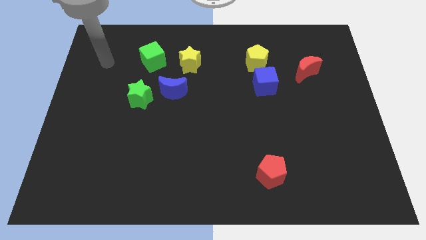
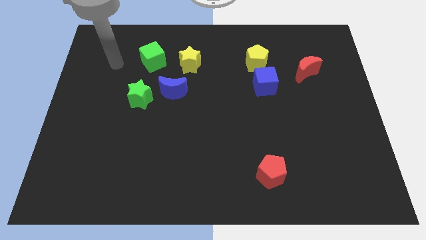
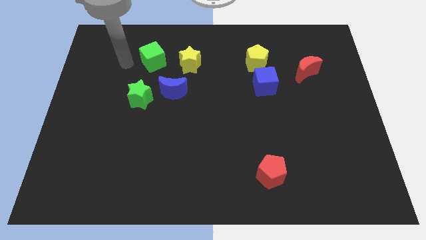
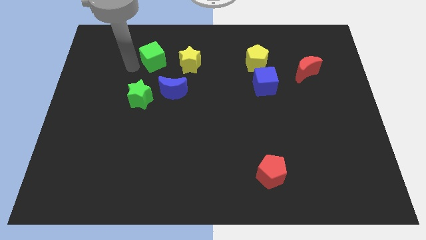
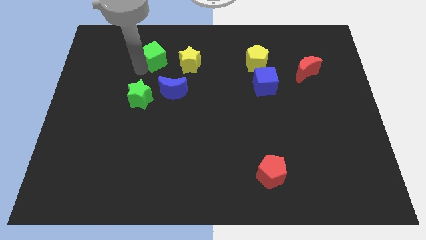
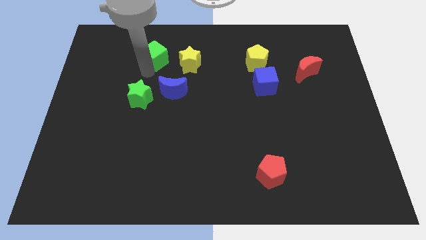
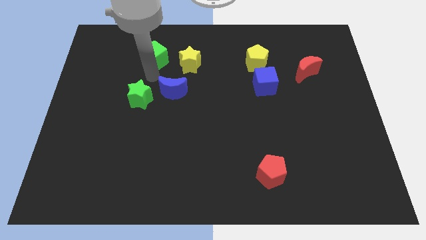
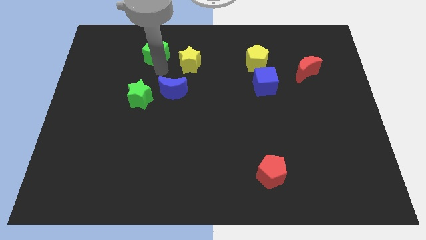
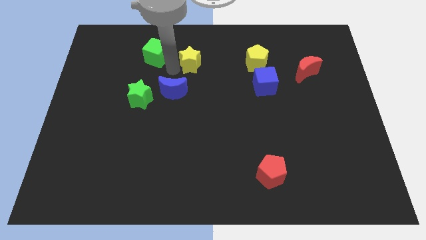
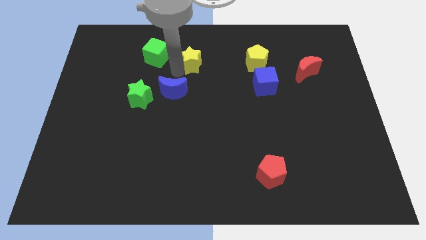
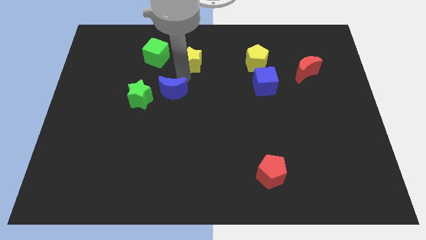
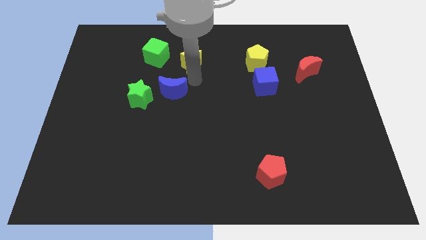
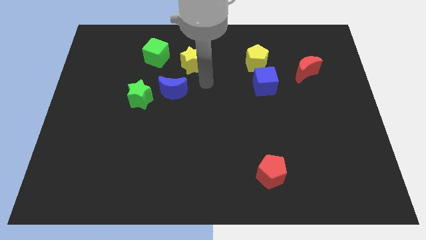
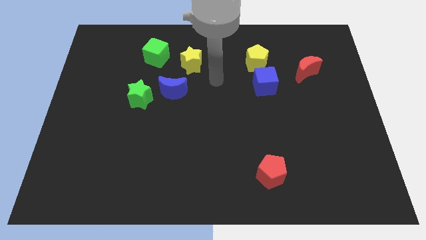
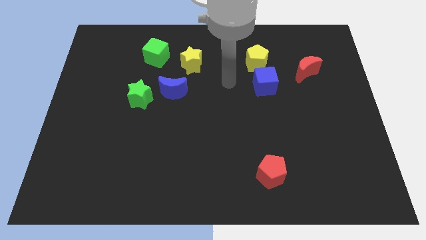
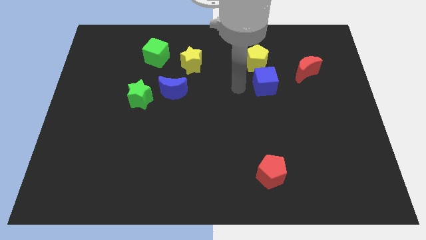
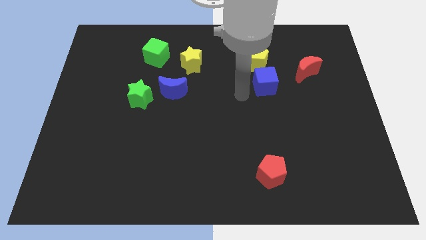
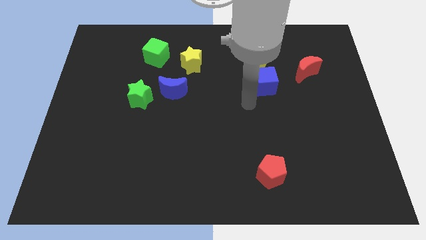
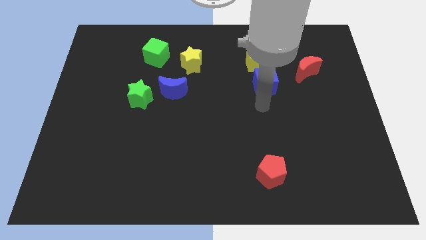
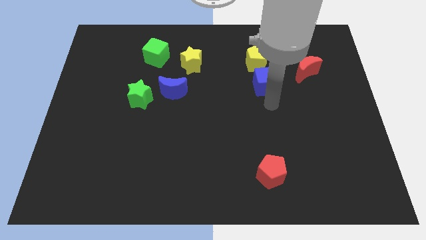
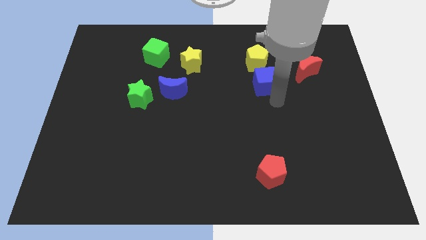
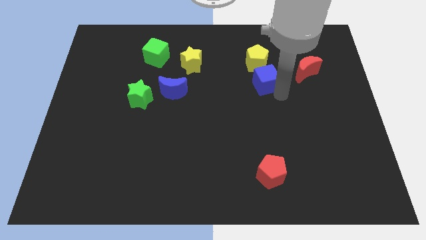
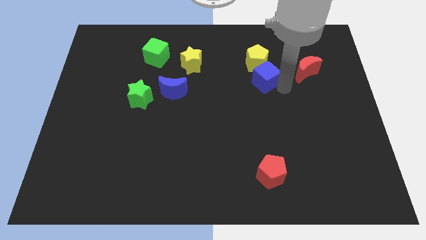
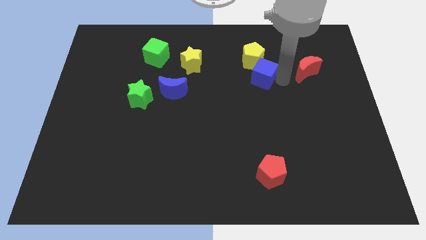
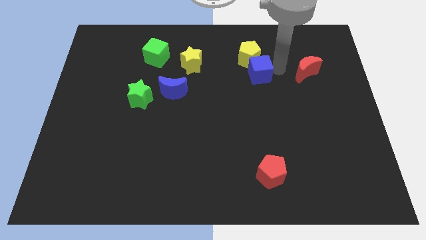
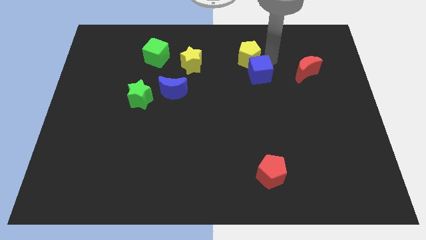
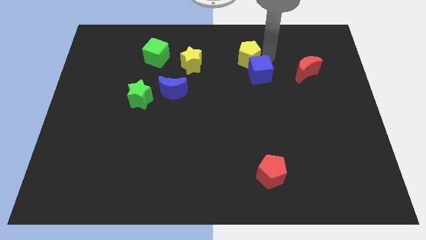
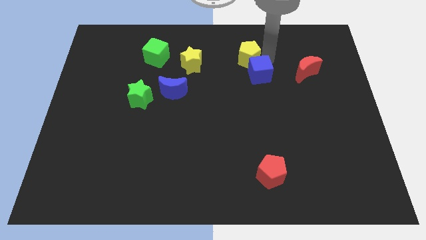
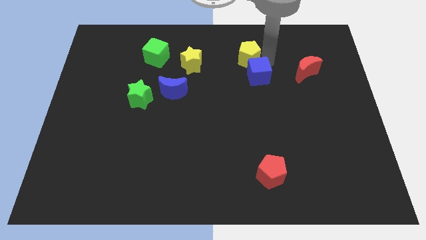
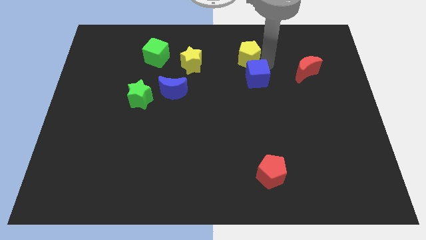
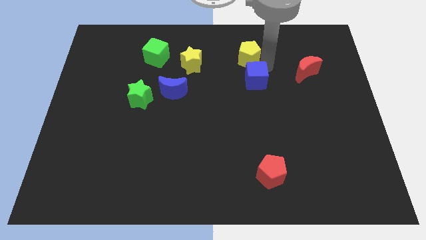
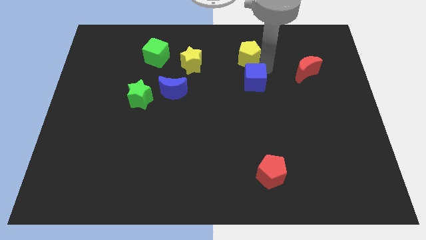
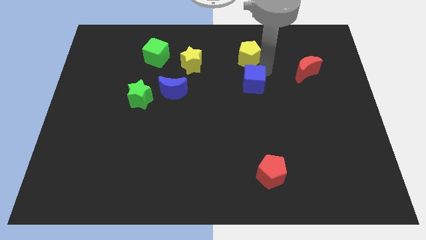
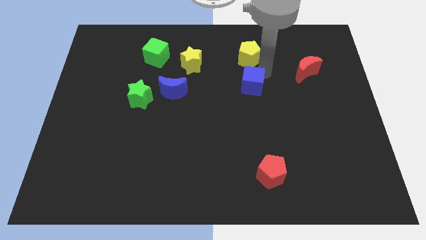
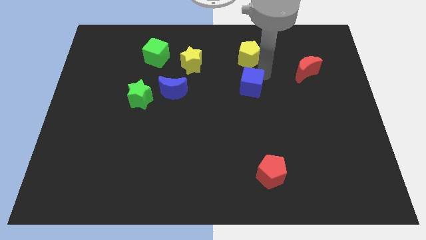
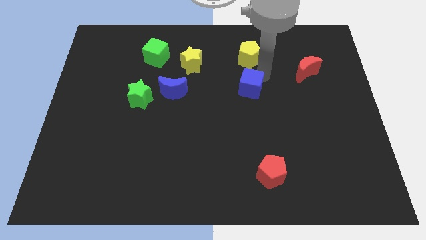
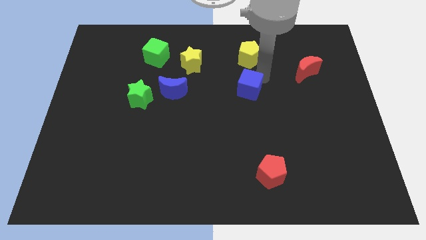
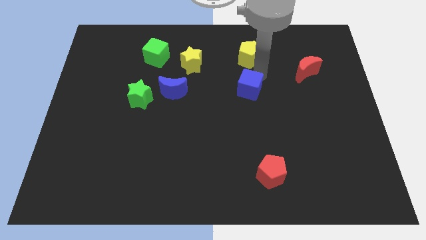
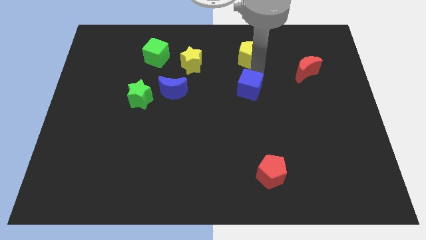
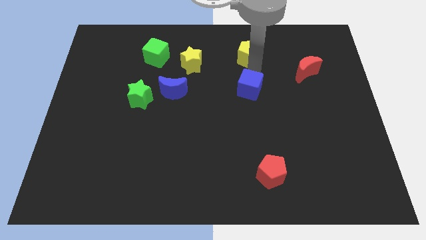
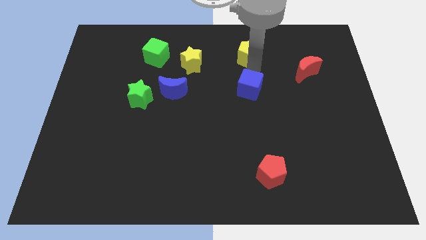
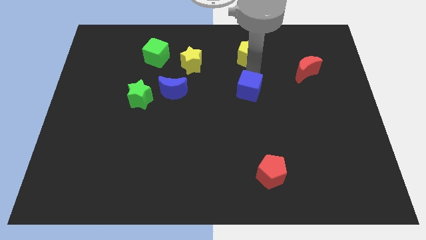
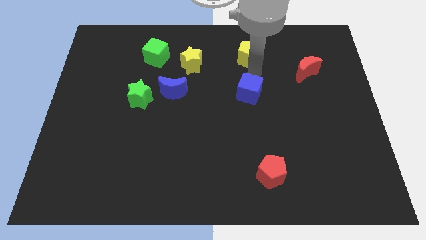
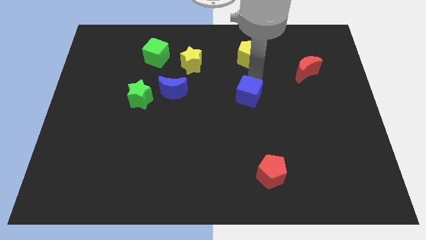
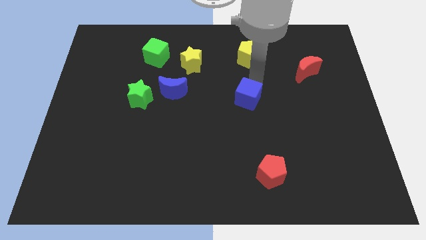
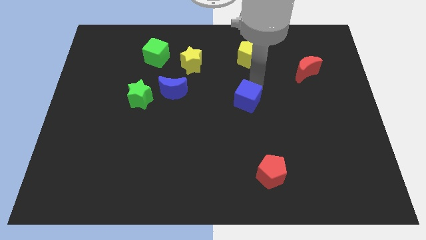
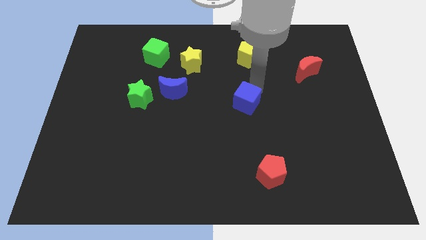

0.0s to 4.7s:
slide the blue cube downwards and left diagonally a little

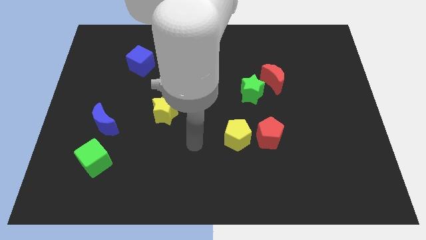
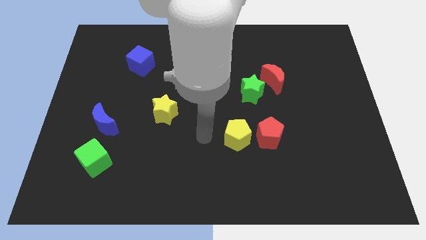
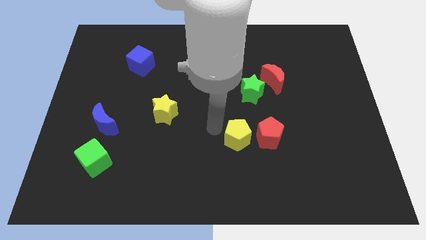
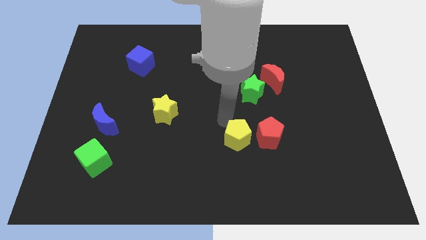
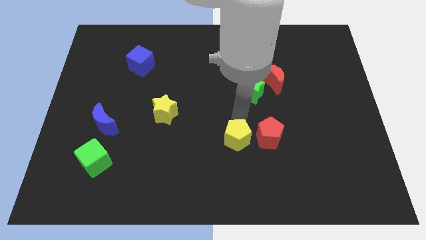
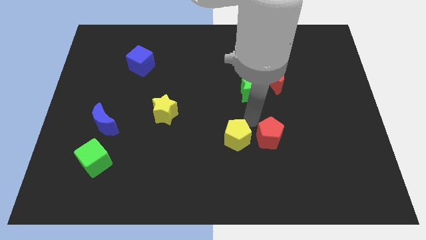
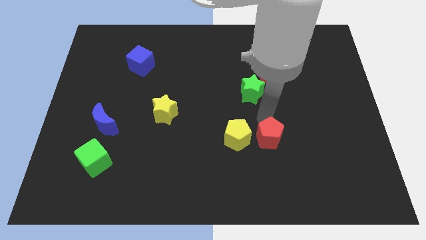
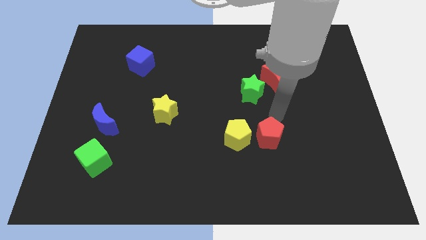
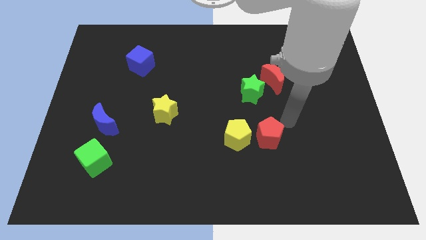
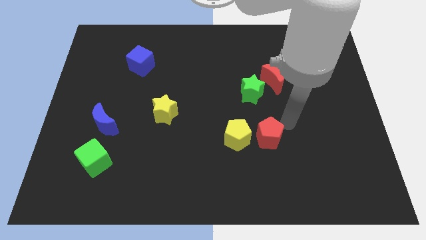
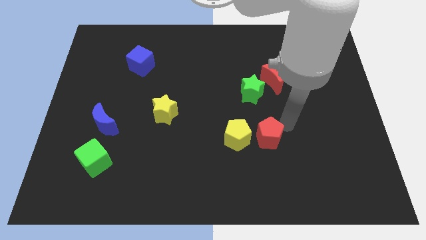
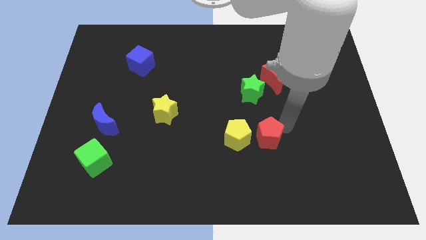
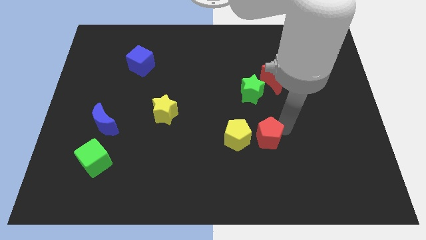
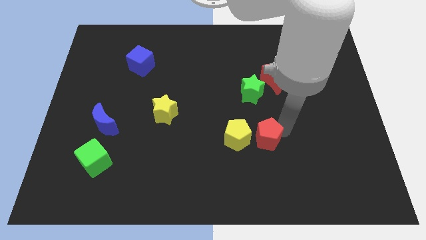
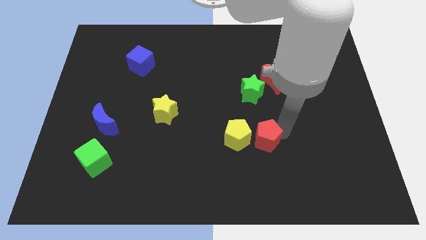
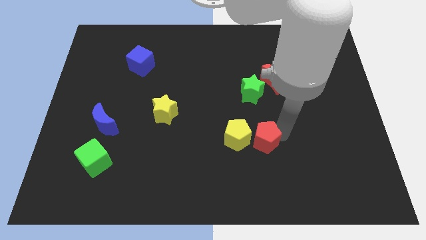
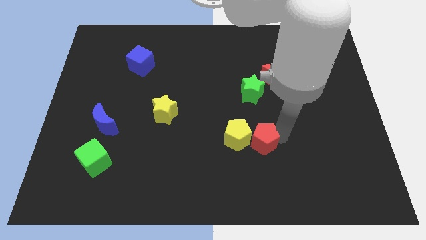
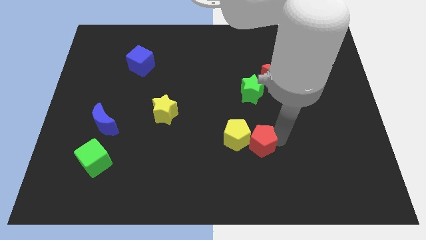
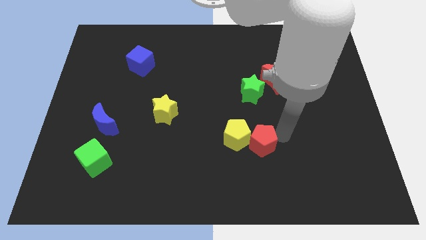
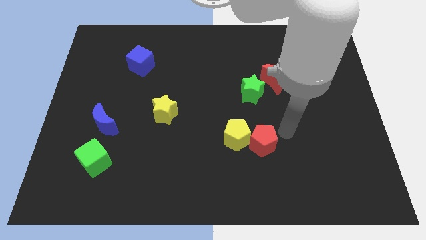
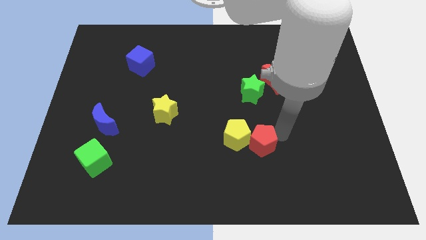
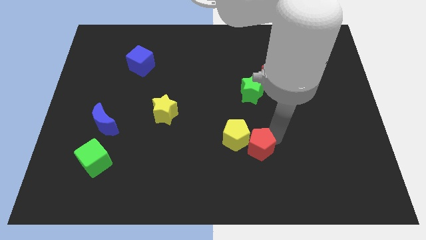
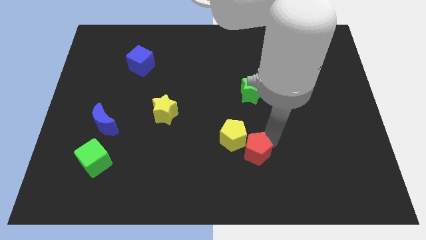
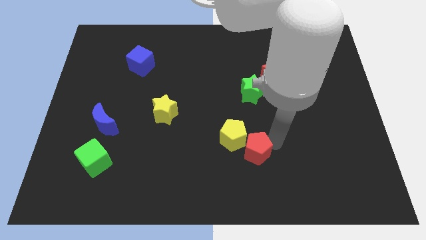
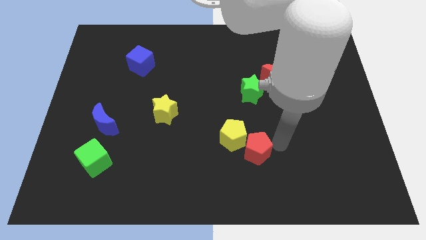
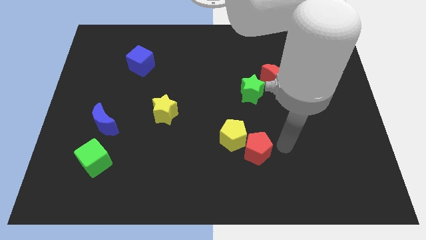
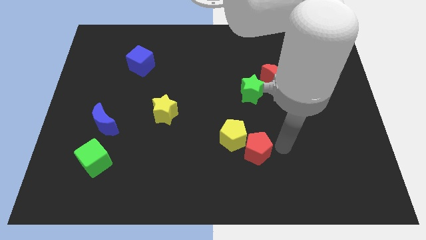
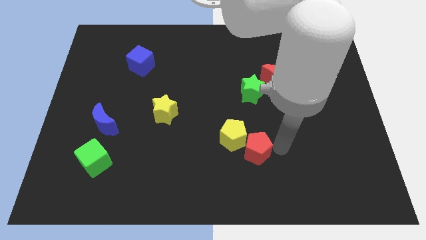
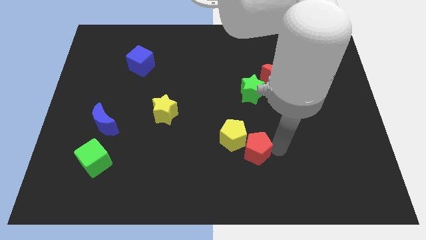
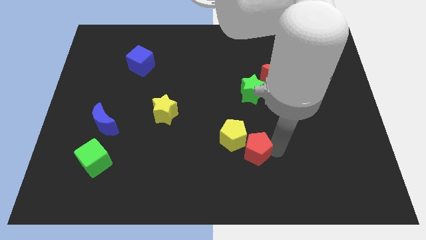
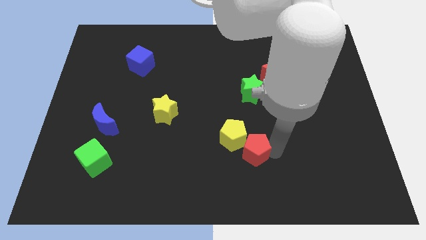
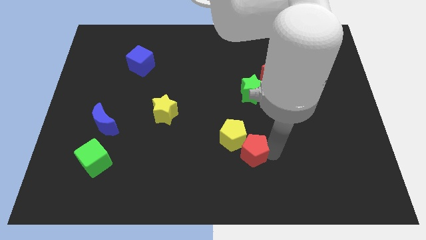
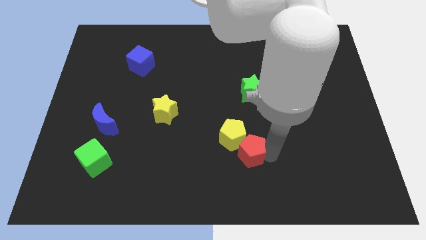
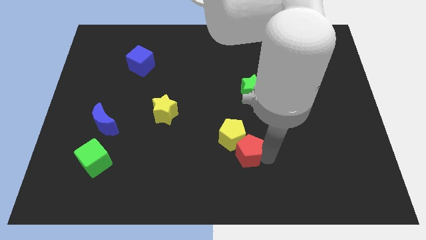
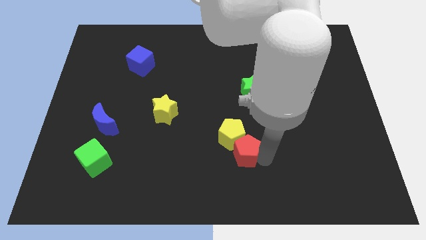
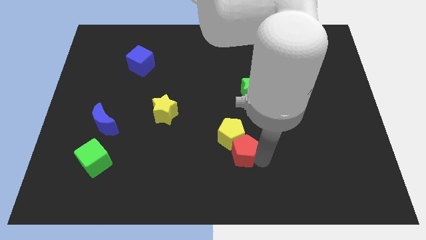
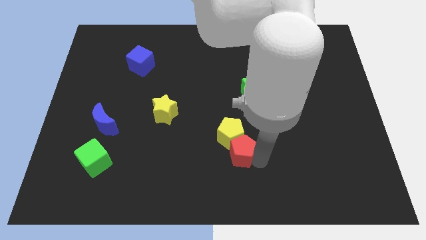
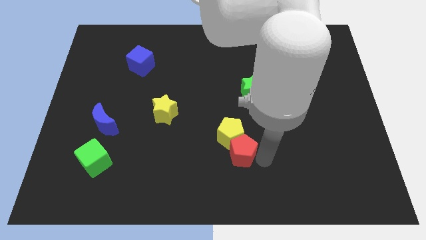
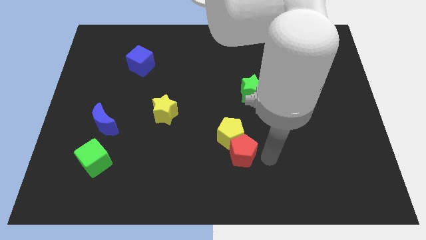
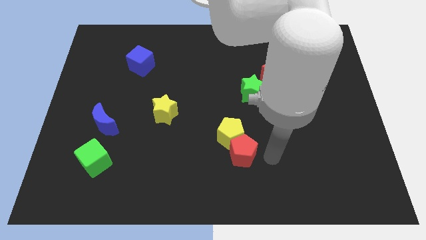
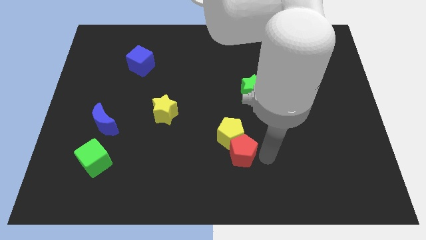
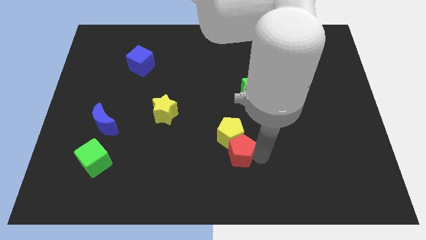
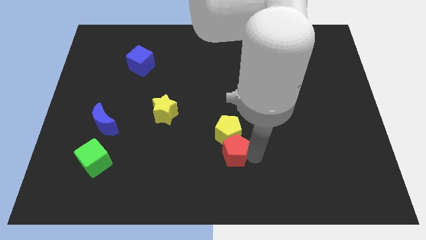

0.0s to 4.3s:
slide the red pentagon somewhat left
